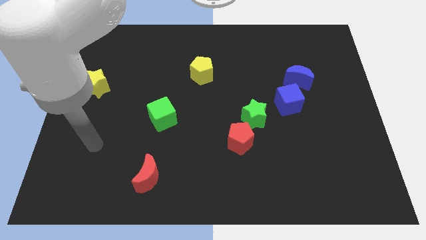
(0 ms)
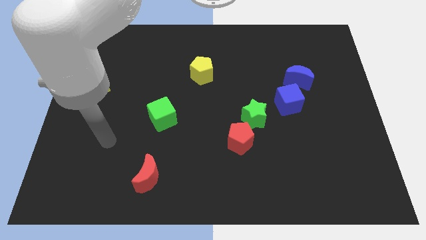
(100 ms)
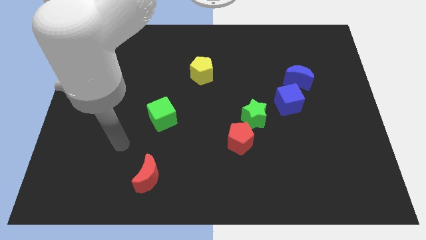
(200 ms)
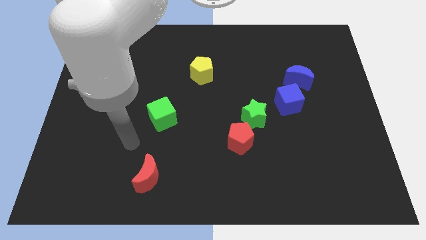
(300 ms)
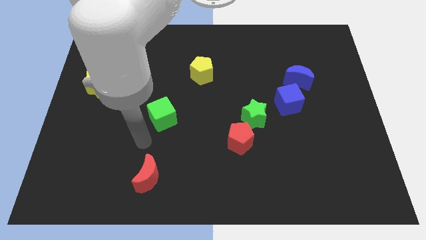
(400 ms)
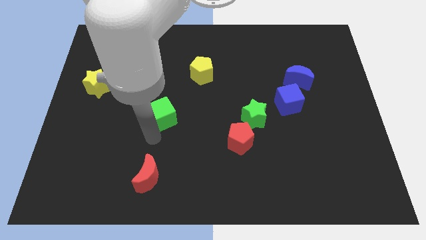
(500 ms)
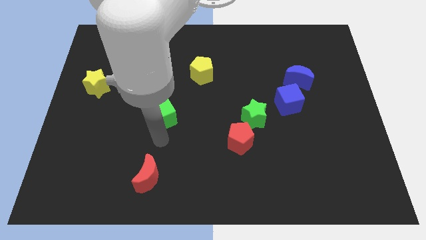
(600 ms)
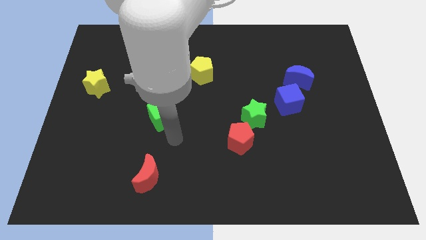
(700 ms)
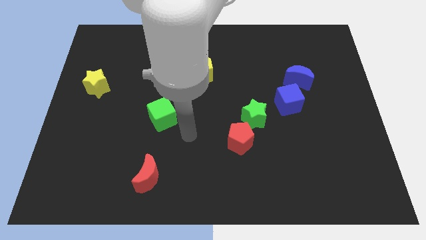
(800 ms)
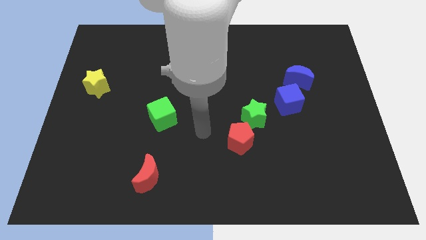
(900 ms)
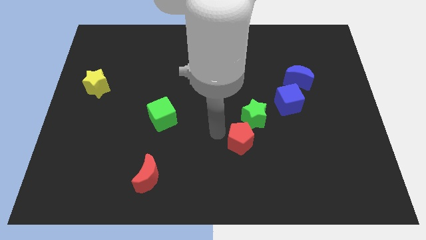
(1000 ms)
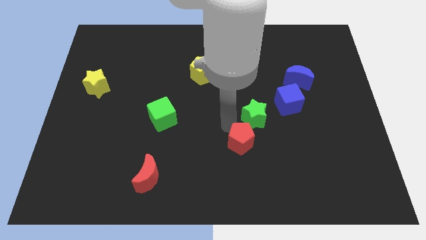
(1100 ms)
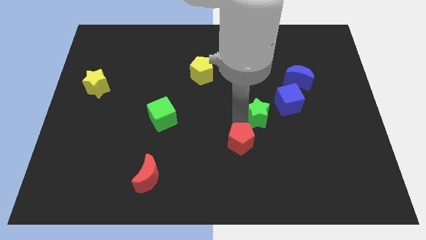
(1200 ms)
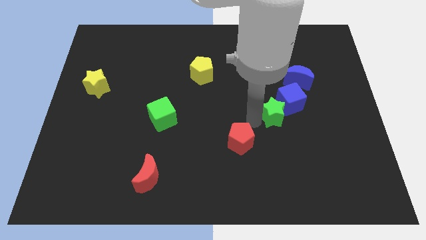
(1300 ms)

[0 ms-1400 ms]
pull the red pentagon apart from the green star

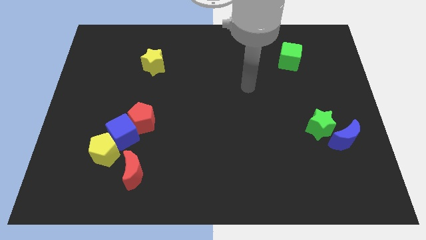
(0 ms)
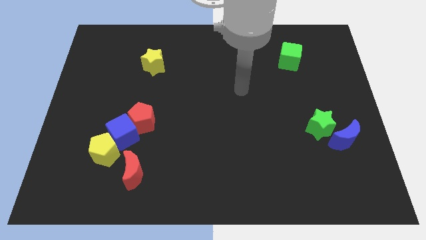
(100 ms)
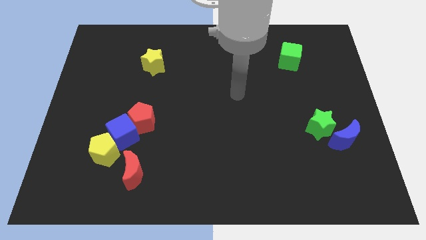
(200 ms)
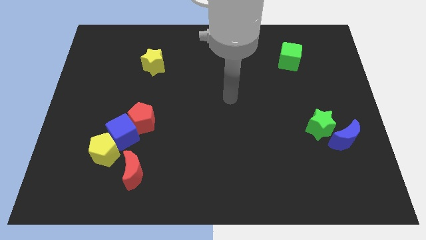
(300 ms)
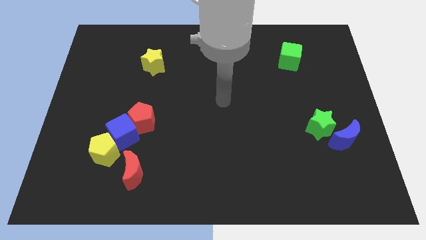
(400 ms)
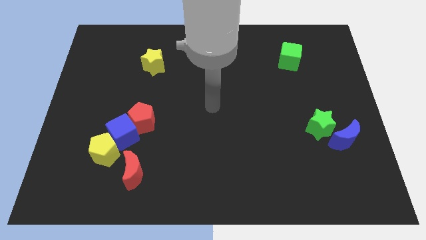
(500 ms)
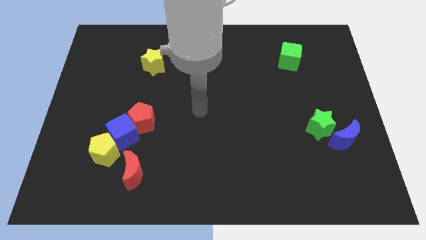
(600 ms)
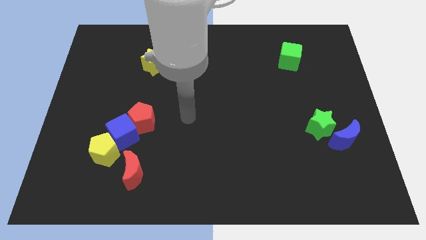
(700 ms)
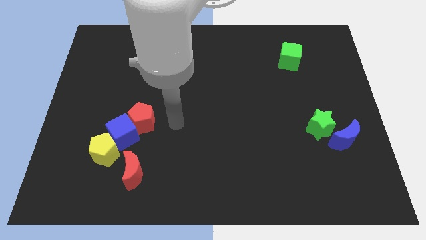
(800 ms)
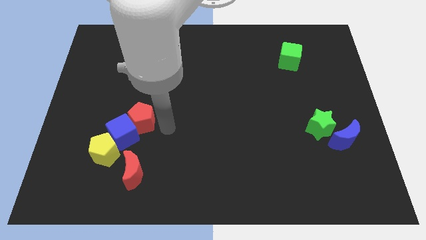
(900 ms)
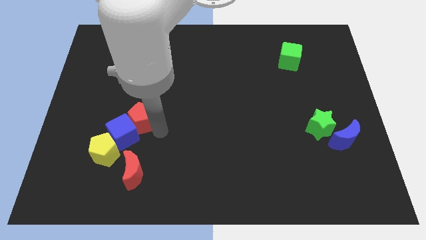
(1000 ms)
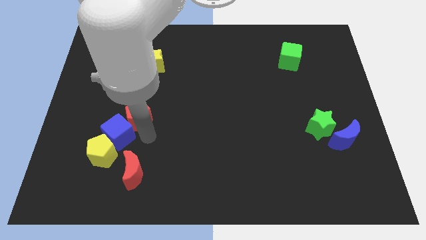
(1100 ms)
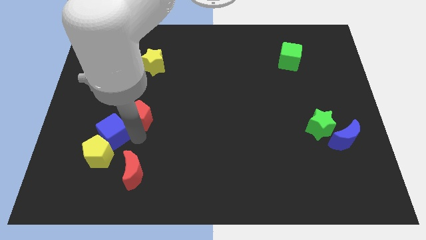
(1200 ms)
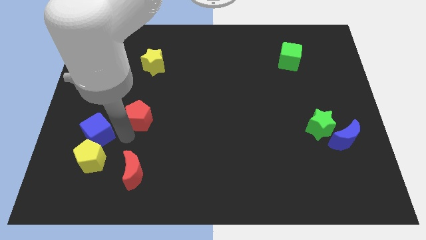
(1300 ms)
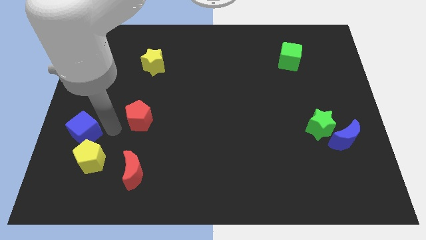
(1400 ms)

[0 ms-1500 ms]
pull the red pentagon apart from the blue cube

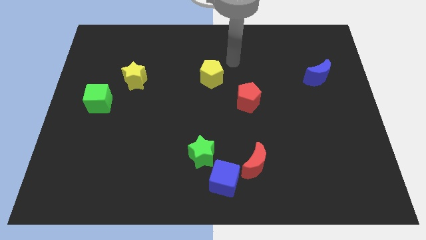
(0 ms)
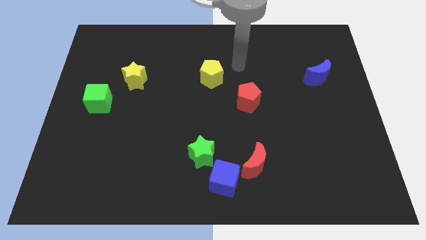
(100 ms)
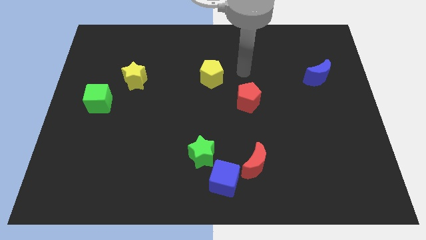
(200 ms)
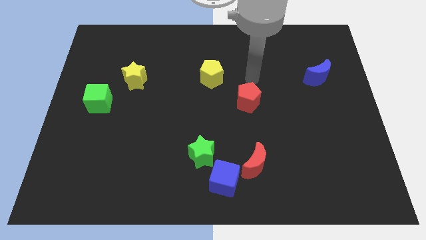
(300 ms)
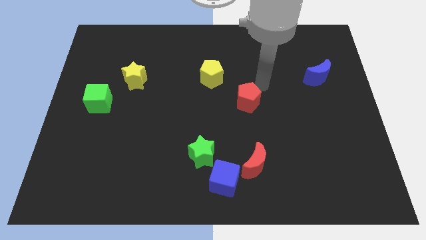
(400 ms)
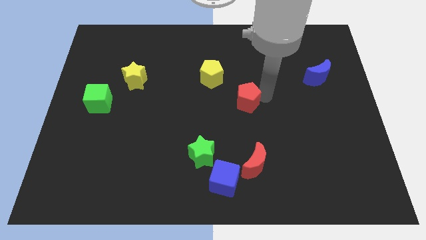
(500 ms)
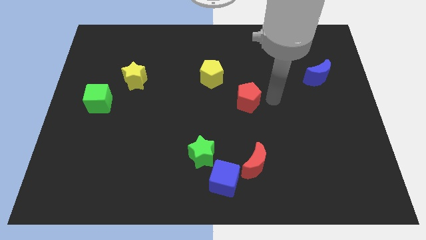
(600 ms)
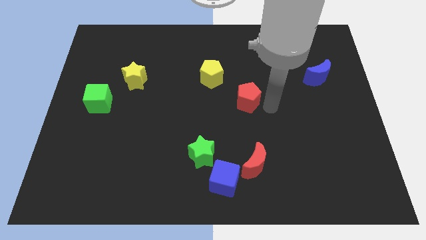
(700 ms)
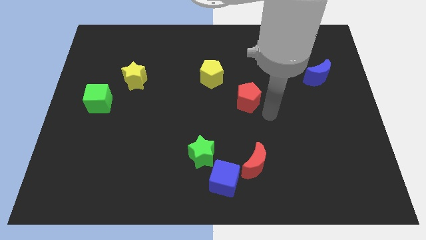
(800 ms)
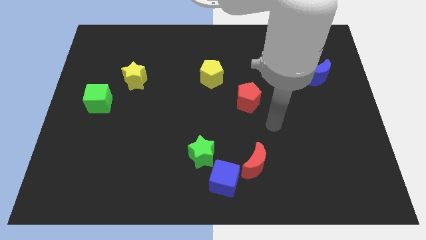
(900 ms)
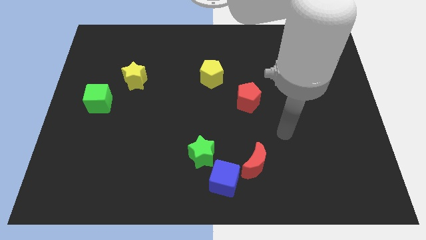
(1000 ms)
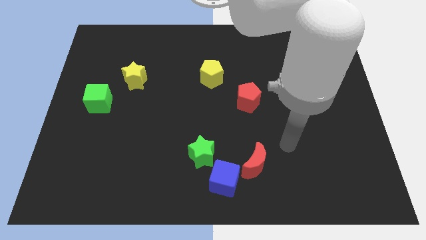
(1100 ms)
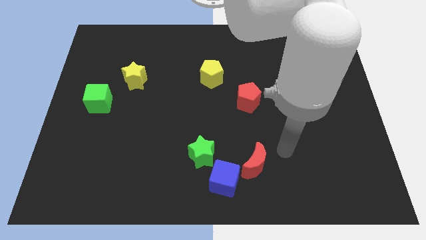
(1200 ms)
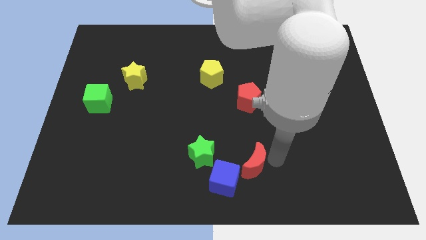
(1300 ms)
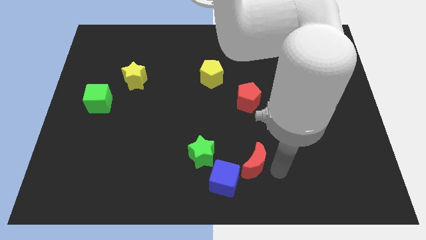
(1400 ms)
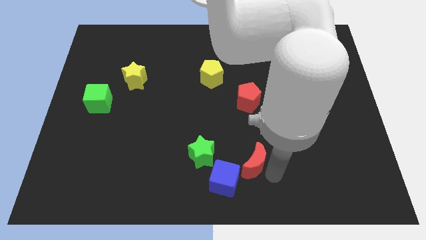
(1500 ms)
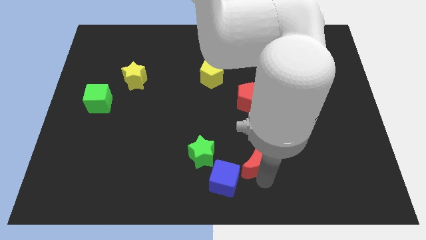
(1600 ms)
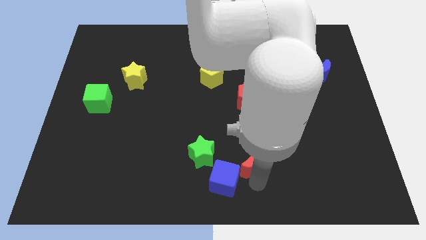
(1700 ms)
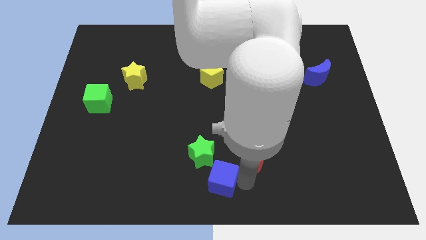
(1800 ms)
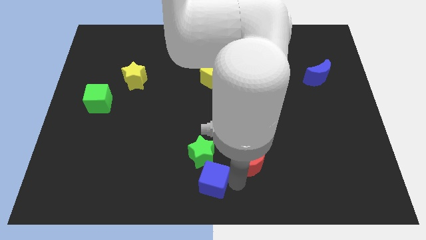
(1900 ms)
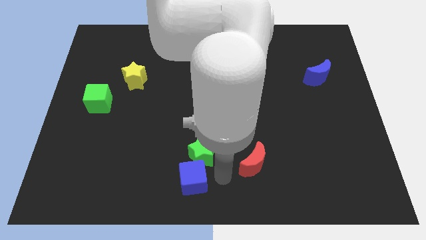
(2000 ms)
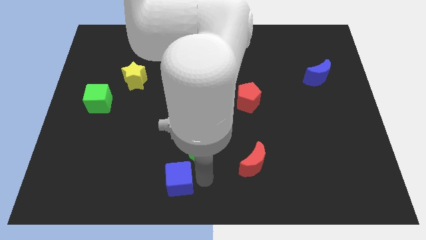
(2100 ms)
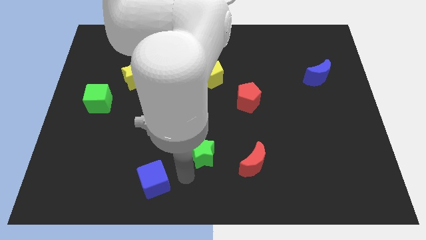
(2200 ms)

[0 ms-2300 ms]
move the green star away from the blue cube

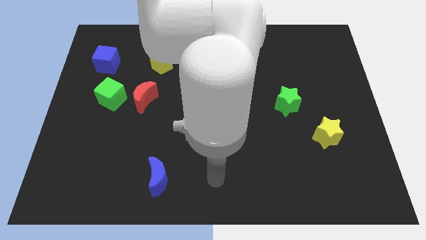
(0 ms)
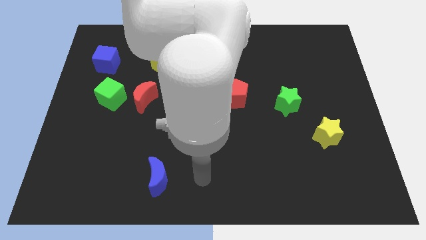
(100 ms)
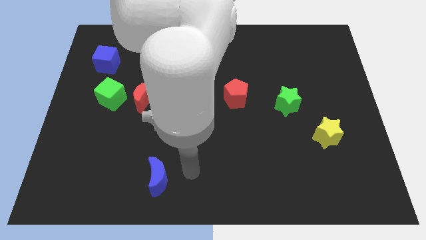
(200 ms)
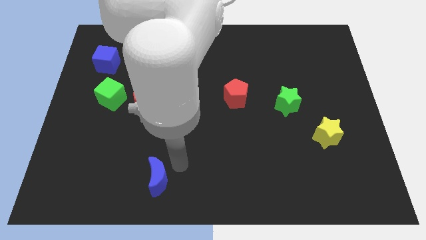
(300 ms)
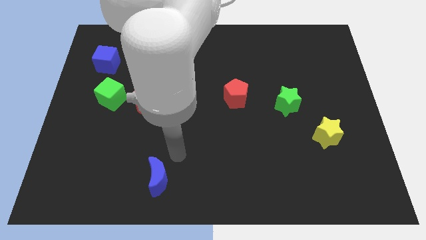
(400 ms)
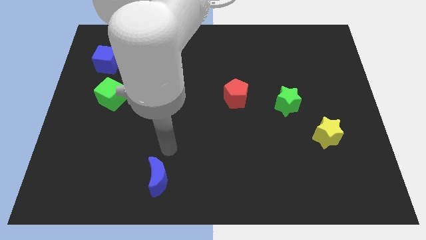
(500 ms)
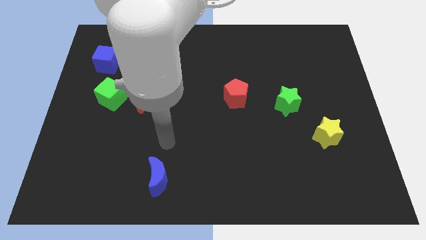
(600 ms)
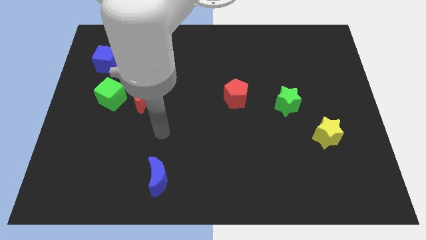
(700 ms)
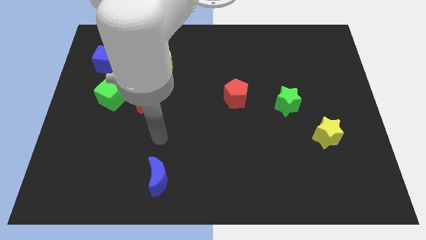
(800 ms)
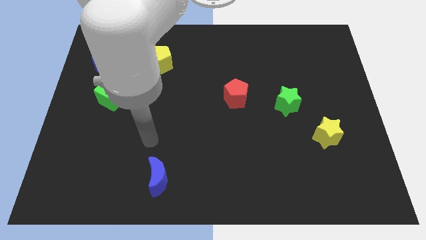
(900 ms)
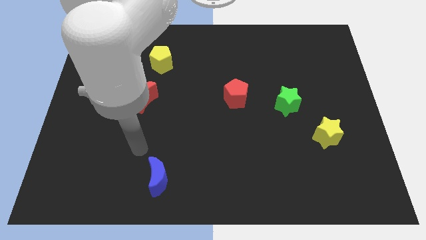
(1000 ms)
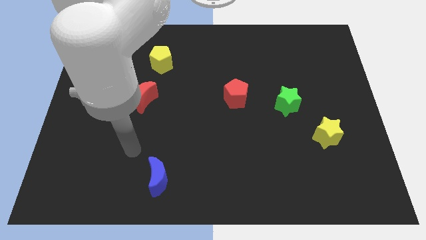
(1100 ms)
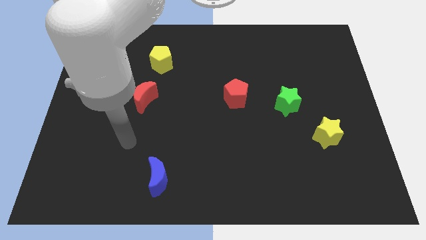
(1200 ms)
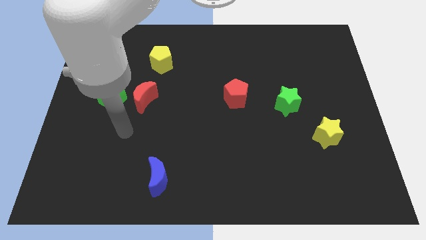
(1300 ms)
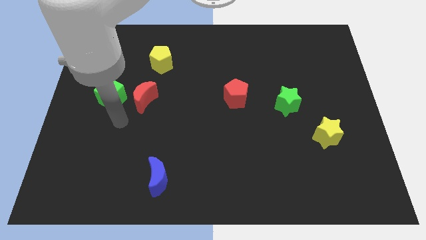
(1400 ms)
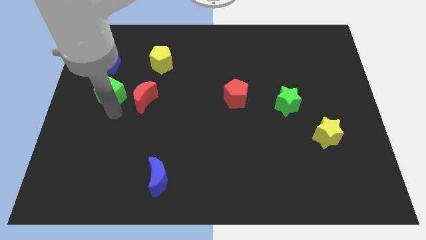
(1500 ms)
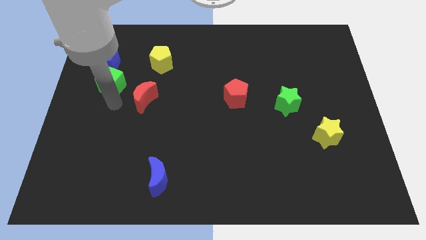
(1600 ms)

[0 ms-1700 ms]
pull the red moon apart from the green cube

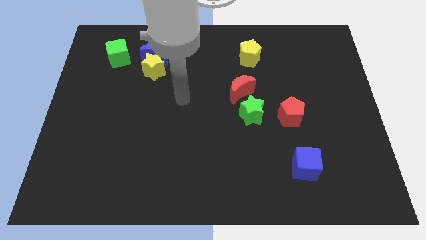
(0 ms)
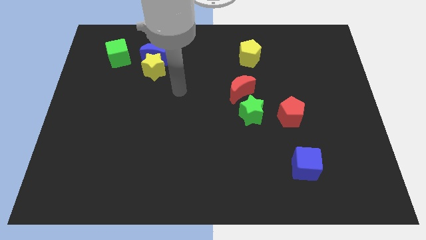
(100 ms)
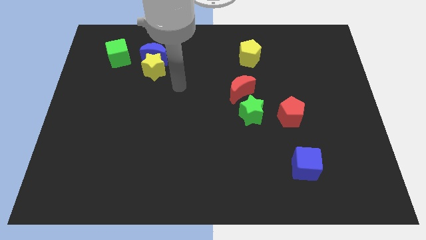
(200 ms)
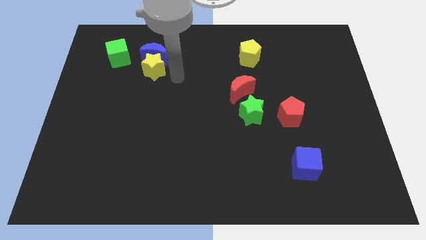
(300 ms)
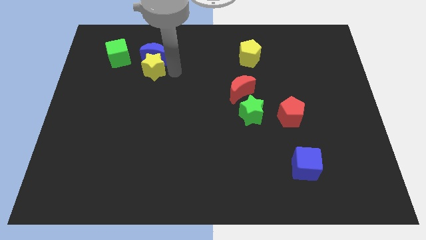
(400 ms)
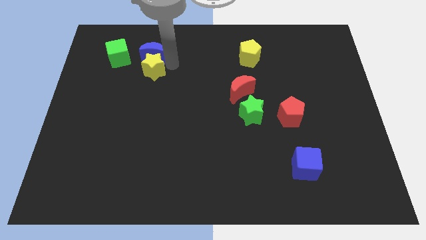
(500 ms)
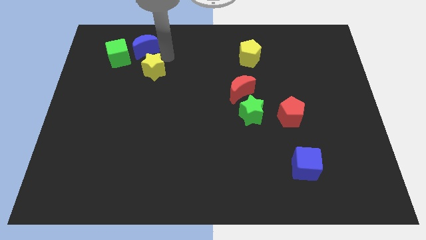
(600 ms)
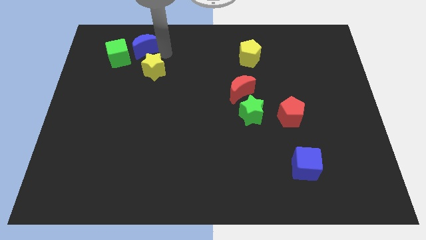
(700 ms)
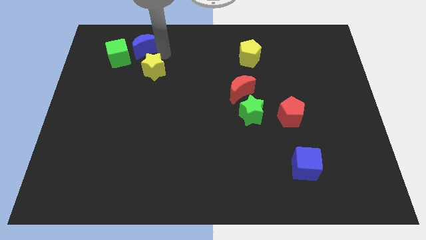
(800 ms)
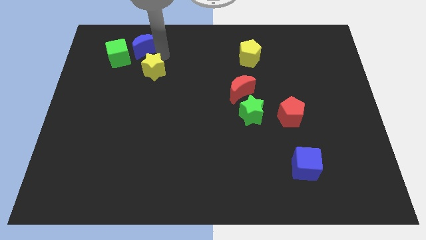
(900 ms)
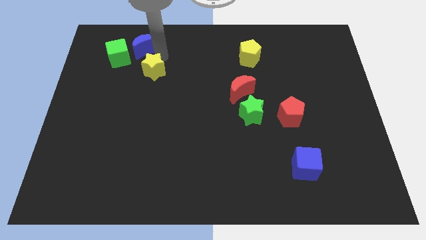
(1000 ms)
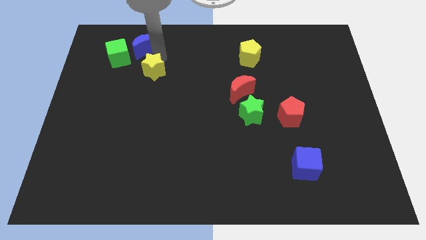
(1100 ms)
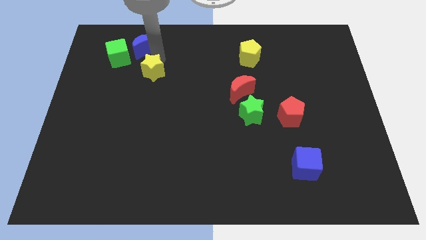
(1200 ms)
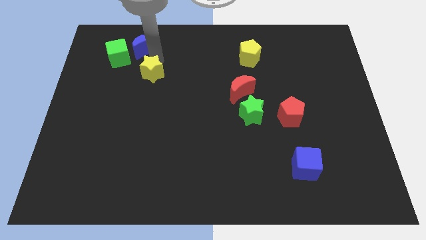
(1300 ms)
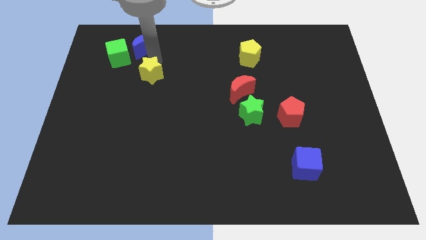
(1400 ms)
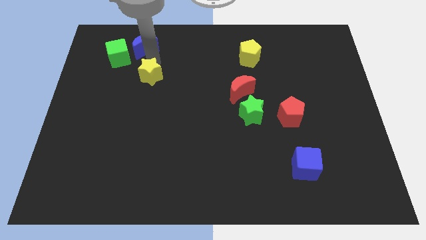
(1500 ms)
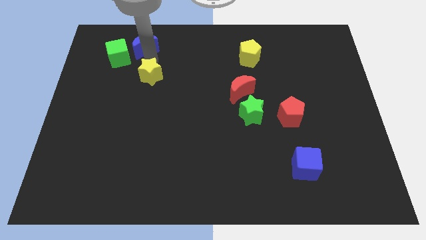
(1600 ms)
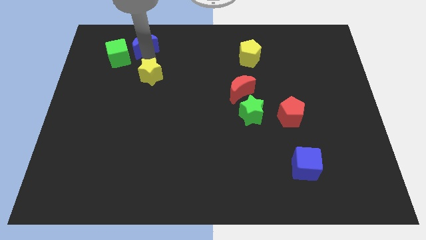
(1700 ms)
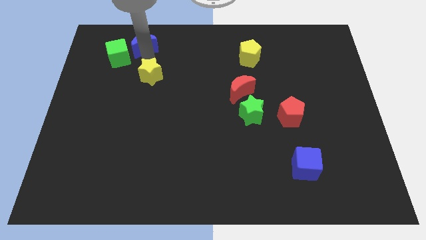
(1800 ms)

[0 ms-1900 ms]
separate the yellow star from the blue moon

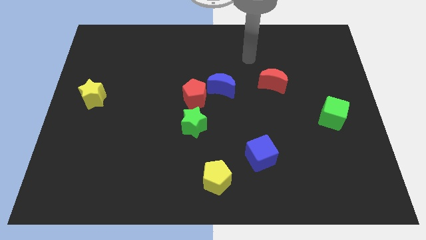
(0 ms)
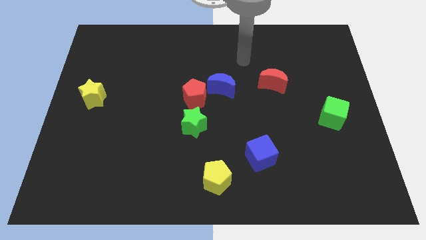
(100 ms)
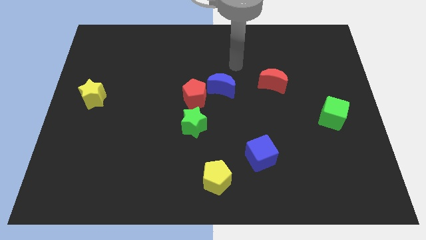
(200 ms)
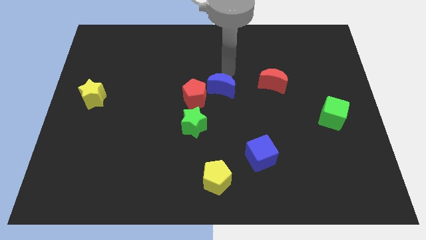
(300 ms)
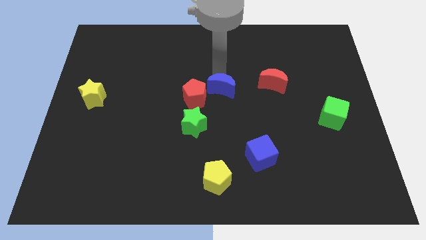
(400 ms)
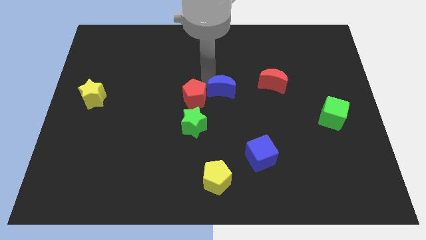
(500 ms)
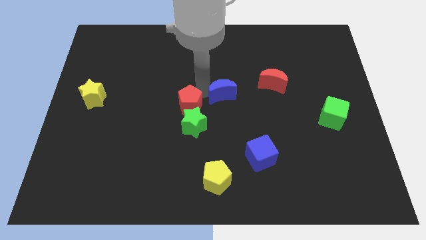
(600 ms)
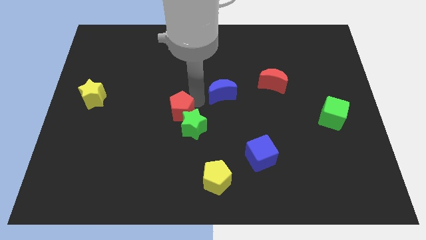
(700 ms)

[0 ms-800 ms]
separate the blue moon from the red pentagon
